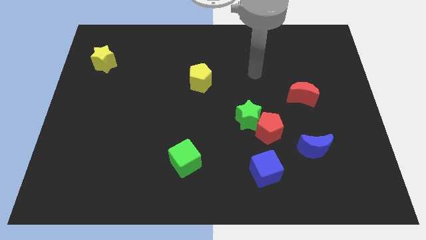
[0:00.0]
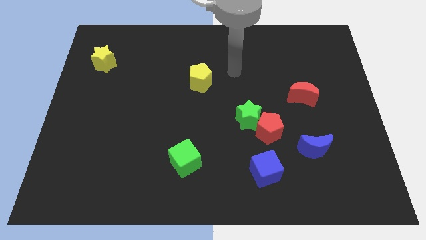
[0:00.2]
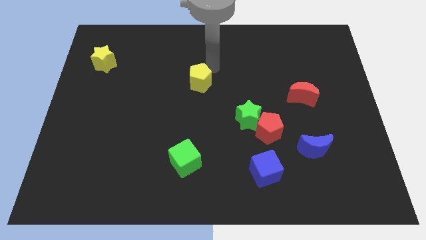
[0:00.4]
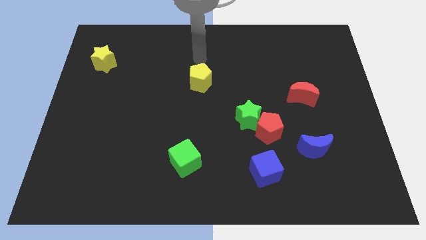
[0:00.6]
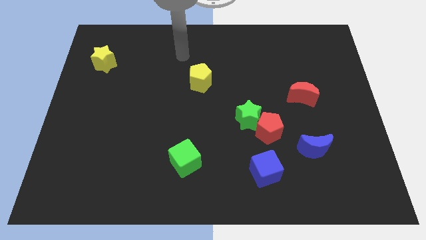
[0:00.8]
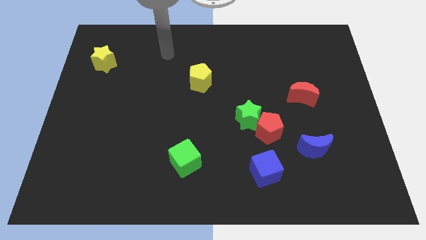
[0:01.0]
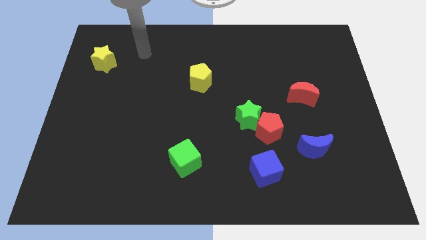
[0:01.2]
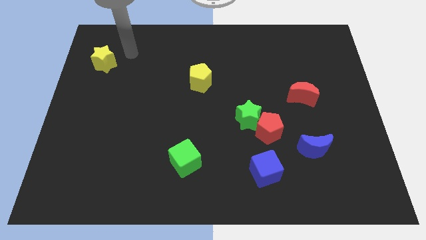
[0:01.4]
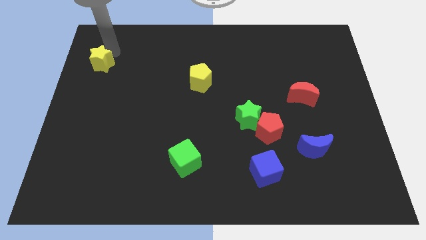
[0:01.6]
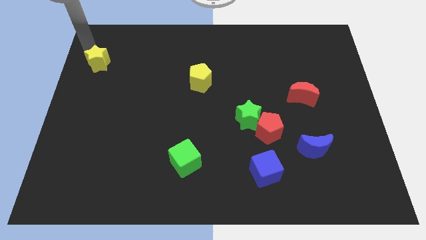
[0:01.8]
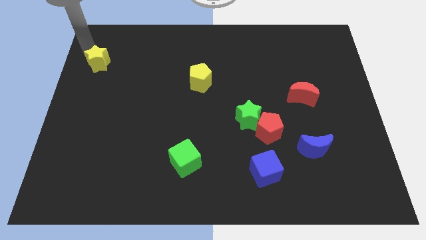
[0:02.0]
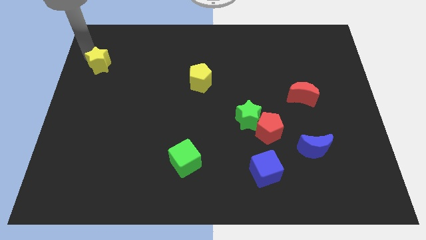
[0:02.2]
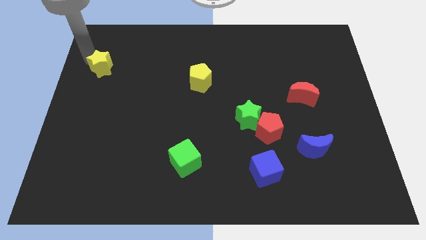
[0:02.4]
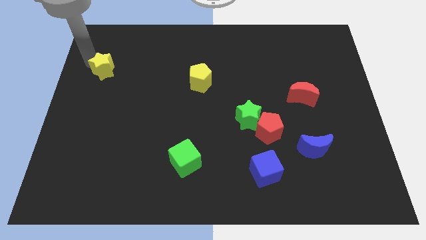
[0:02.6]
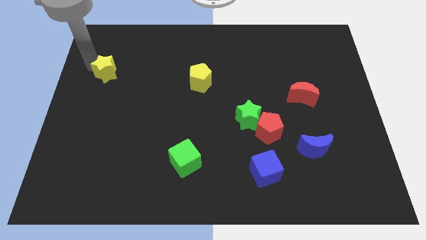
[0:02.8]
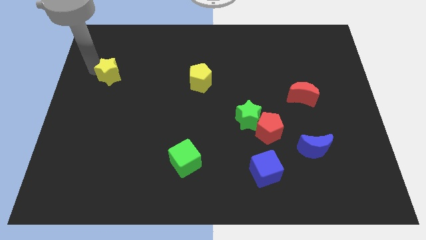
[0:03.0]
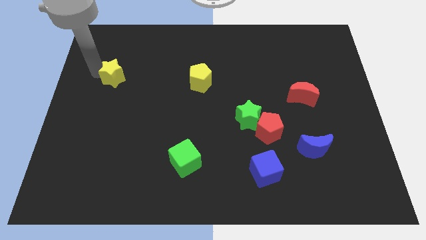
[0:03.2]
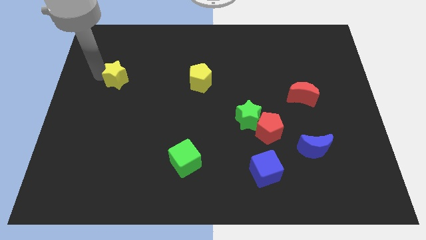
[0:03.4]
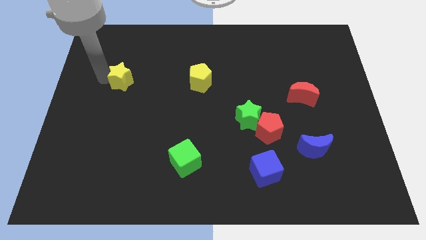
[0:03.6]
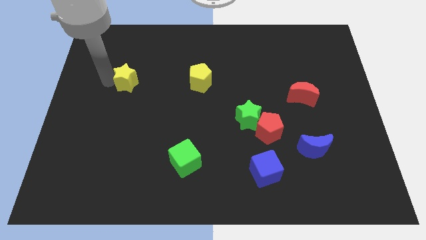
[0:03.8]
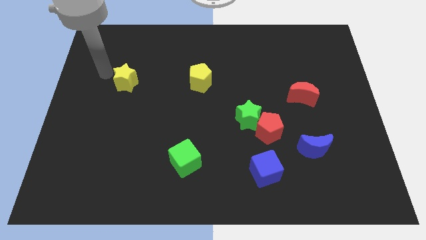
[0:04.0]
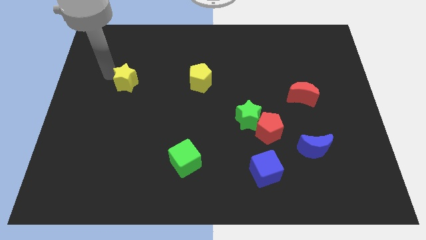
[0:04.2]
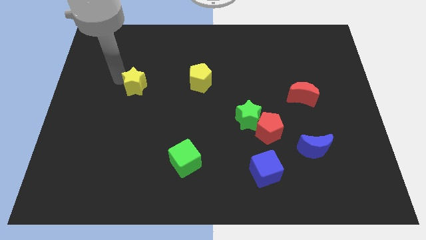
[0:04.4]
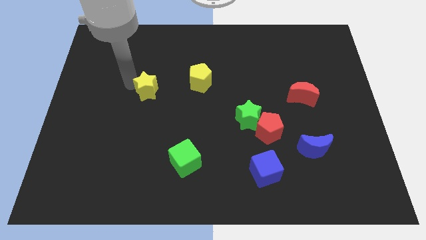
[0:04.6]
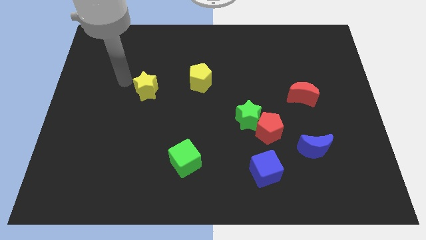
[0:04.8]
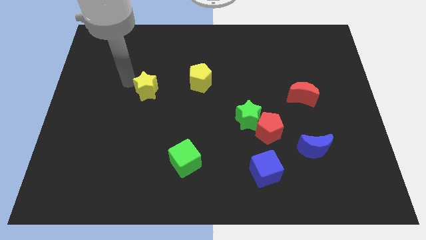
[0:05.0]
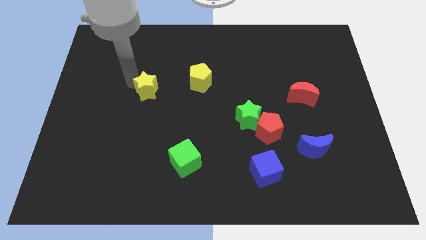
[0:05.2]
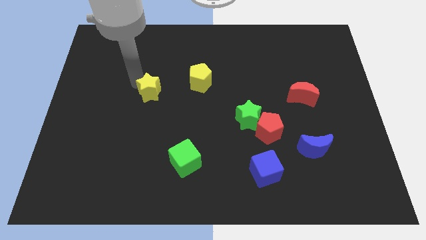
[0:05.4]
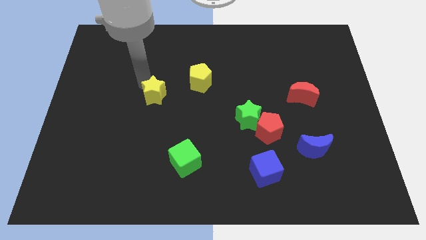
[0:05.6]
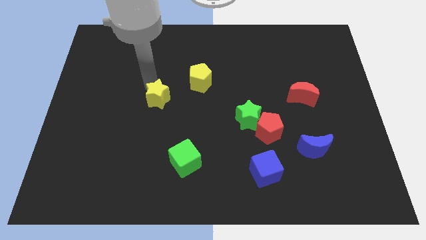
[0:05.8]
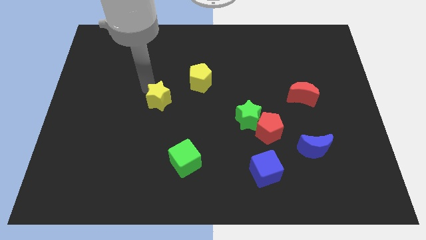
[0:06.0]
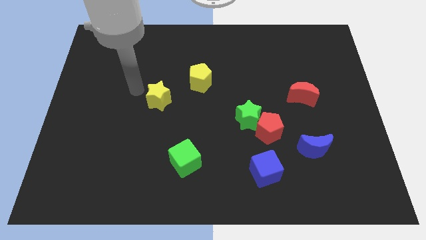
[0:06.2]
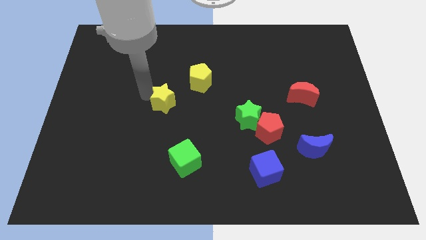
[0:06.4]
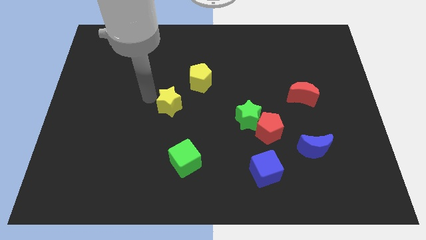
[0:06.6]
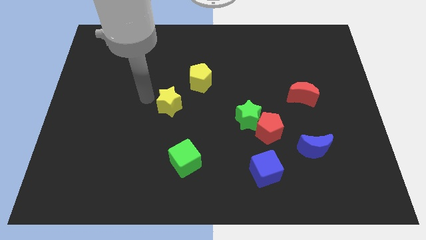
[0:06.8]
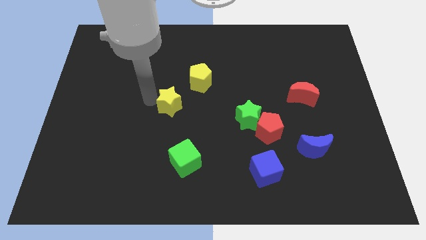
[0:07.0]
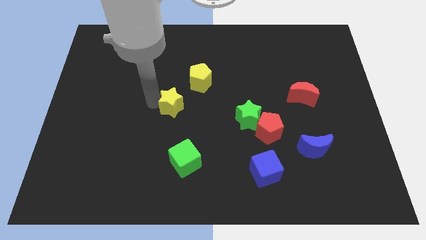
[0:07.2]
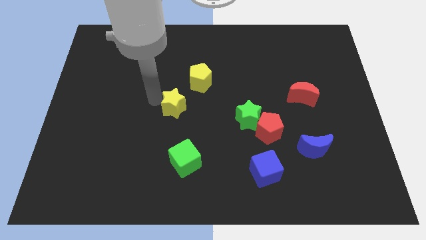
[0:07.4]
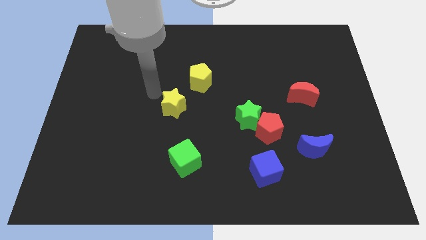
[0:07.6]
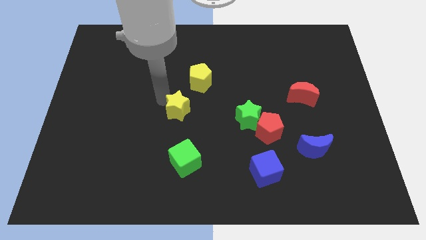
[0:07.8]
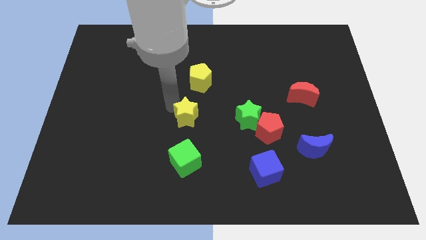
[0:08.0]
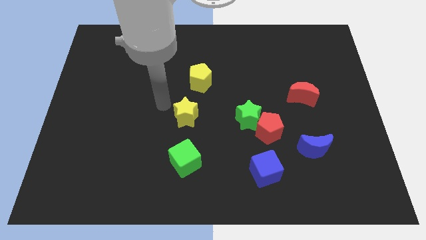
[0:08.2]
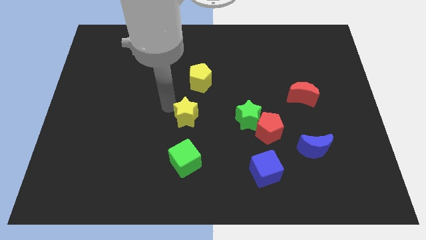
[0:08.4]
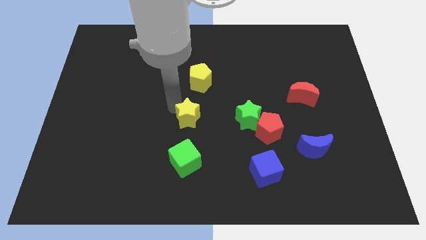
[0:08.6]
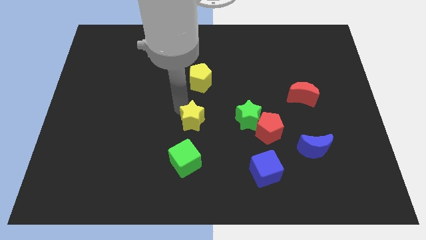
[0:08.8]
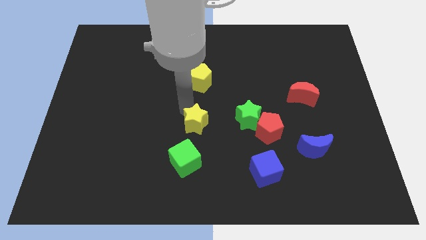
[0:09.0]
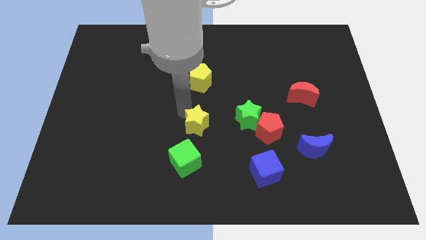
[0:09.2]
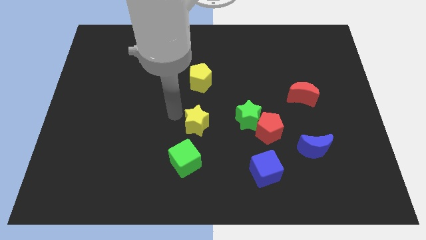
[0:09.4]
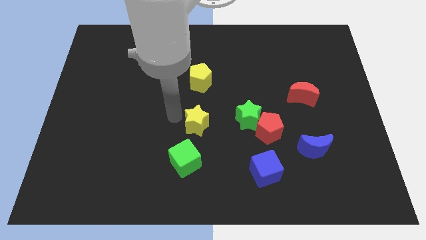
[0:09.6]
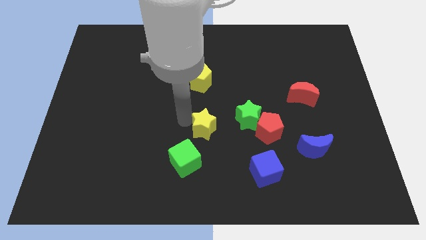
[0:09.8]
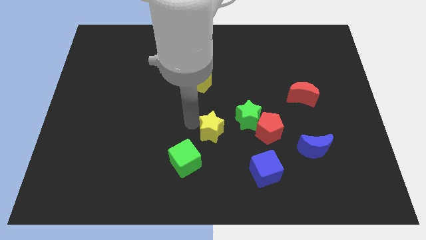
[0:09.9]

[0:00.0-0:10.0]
move the yellow star diagonally down and to the left of the green star

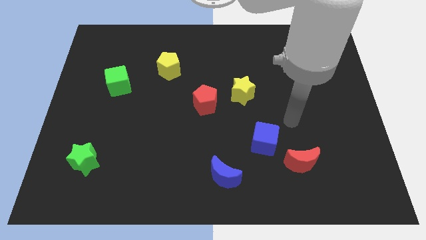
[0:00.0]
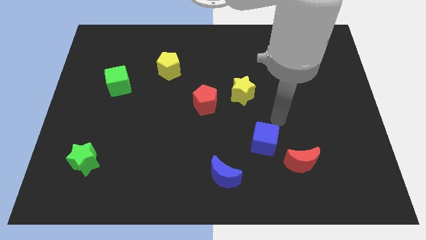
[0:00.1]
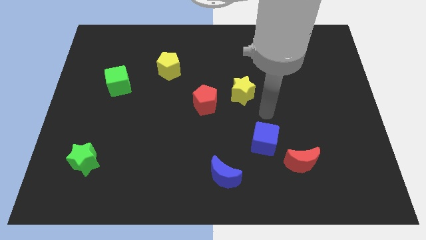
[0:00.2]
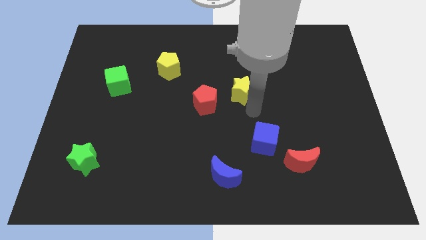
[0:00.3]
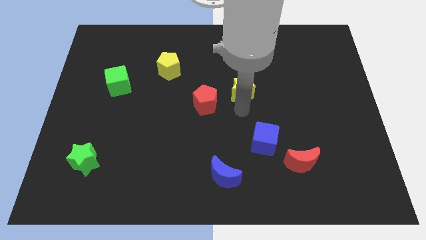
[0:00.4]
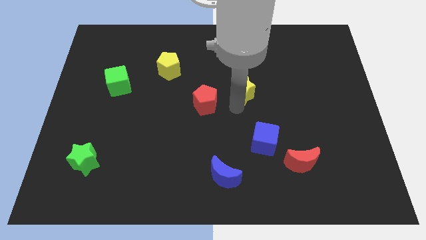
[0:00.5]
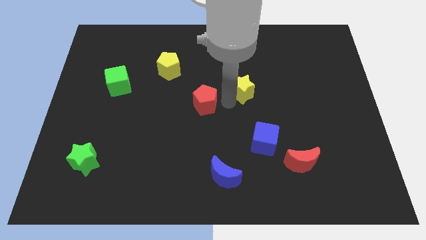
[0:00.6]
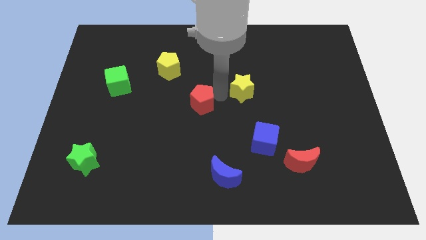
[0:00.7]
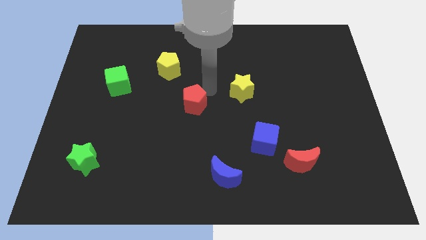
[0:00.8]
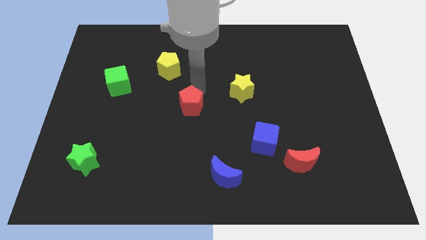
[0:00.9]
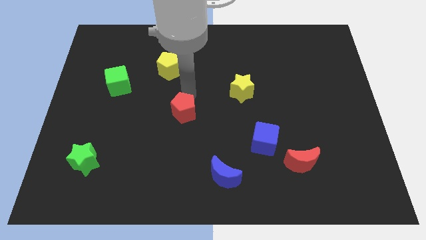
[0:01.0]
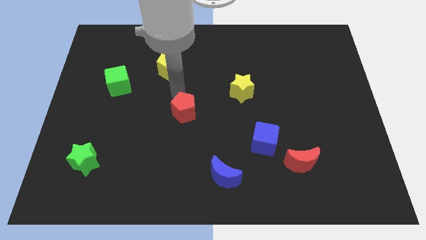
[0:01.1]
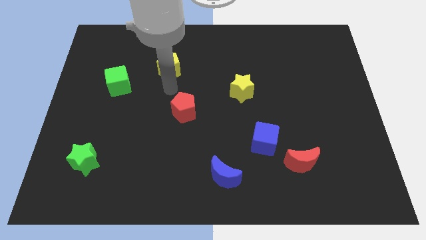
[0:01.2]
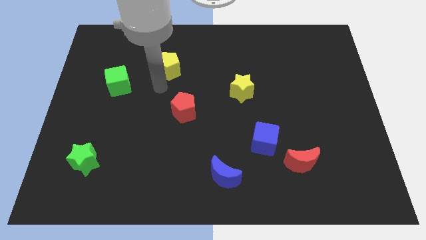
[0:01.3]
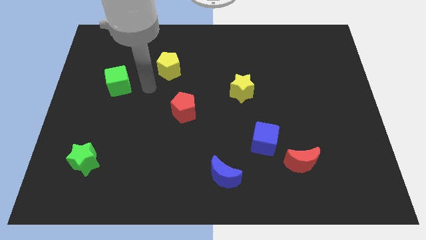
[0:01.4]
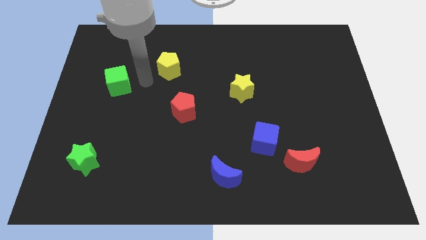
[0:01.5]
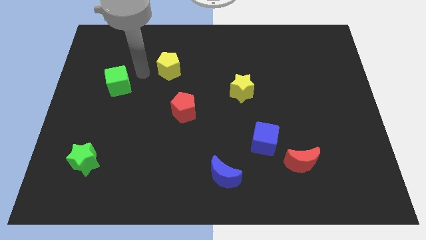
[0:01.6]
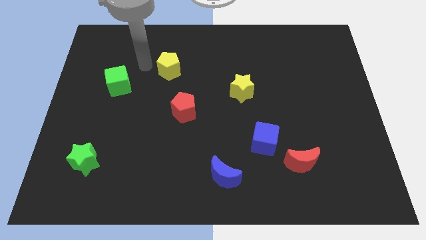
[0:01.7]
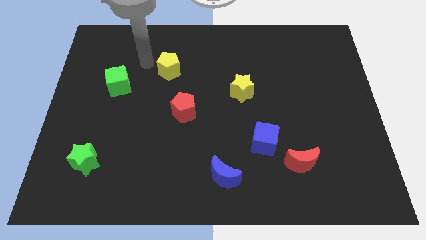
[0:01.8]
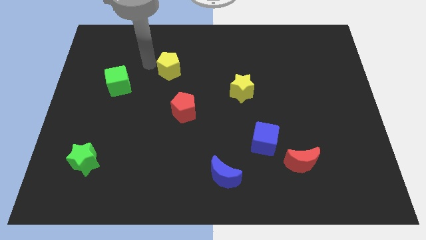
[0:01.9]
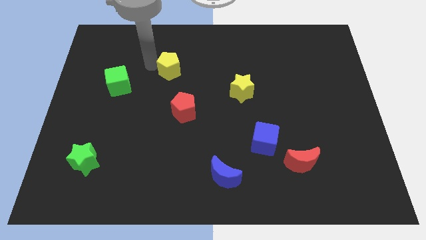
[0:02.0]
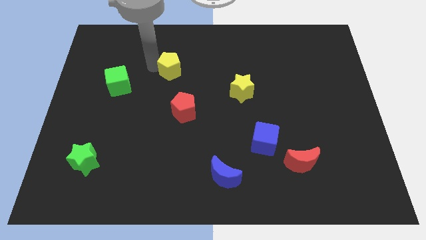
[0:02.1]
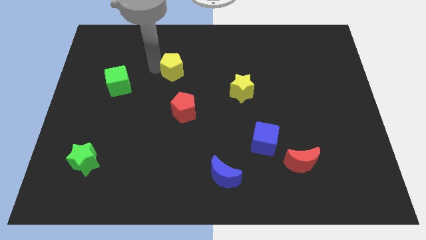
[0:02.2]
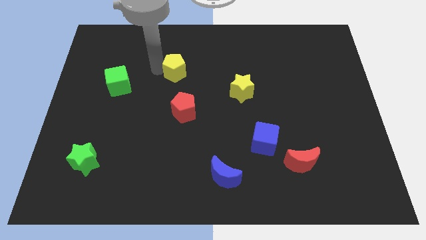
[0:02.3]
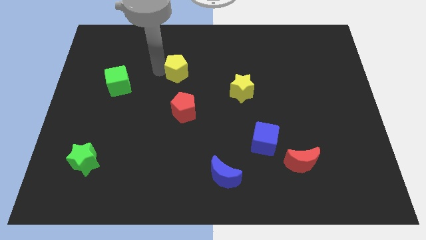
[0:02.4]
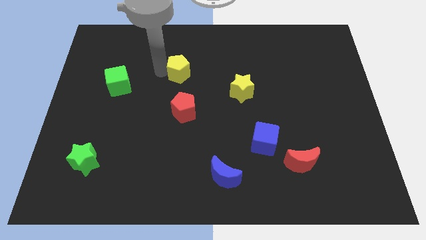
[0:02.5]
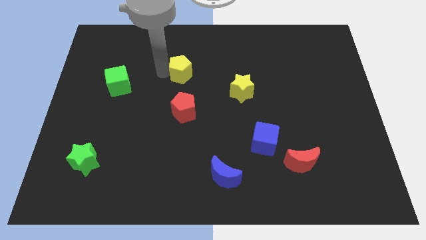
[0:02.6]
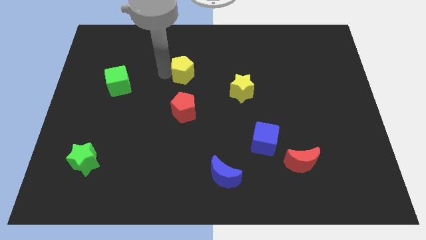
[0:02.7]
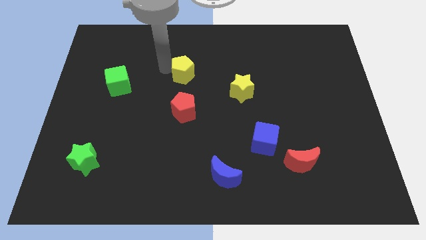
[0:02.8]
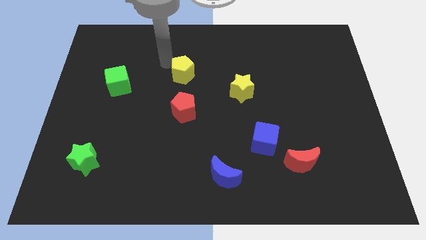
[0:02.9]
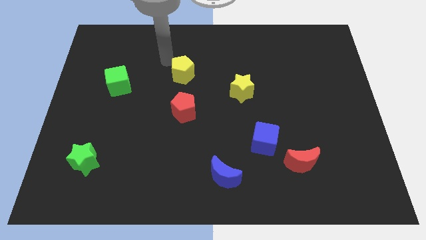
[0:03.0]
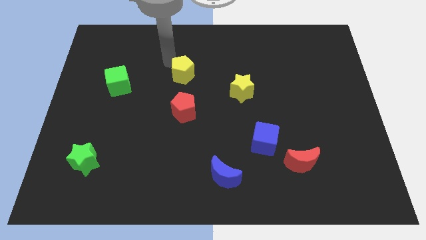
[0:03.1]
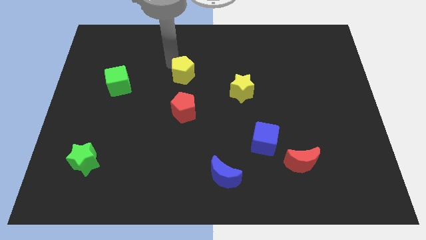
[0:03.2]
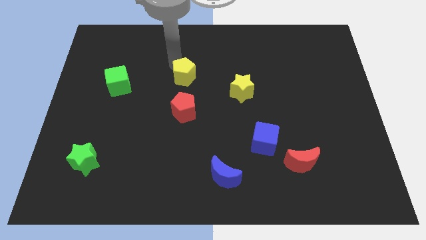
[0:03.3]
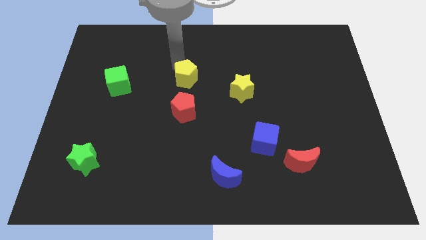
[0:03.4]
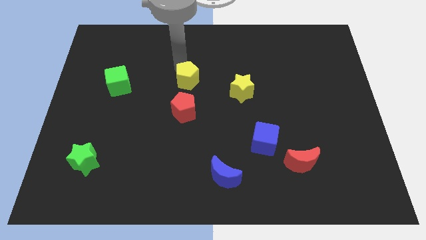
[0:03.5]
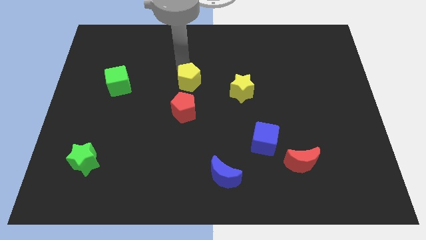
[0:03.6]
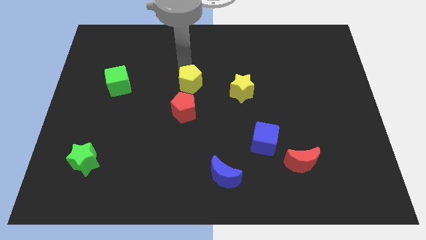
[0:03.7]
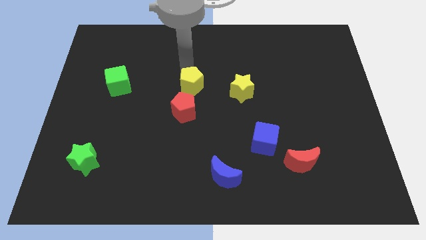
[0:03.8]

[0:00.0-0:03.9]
move the yellow pentagon to the top right of the red pentagon
